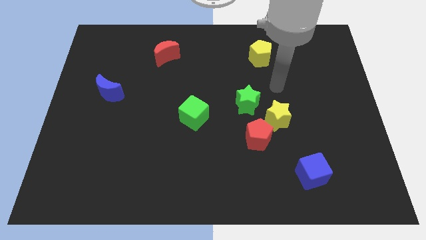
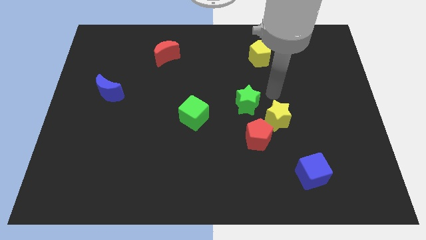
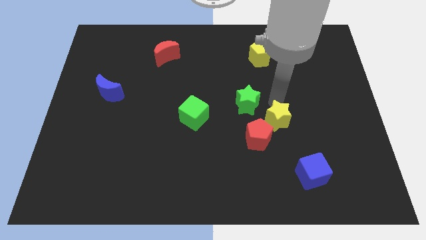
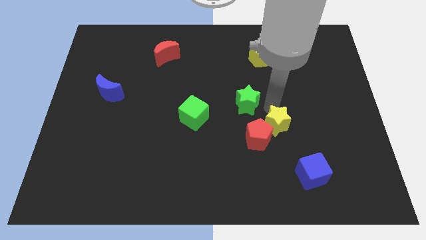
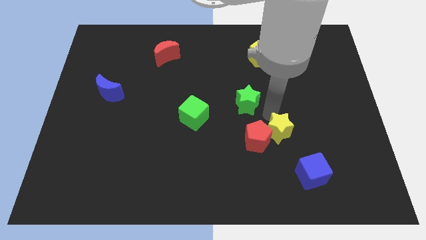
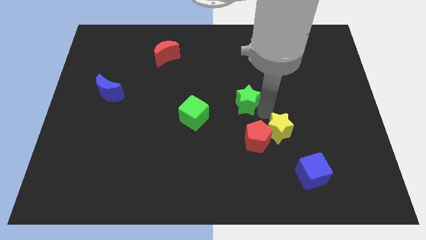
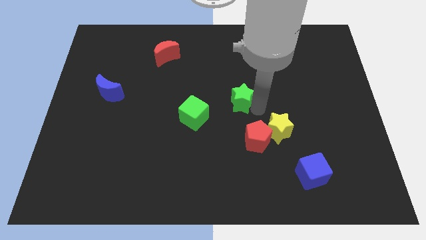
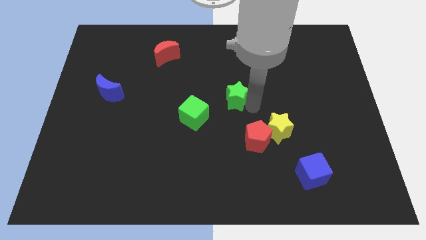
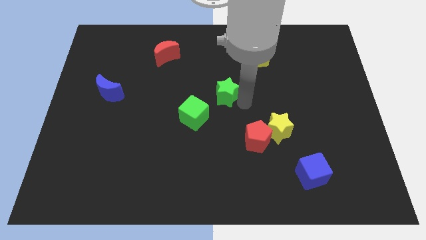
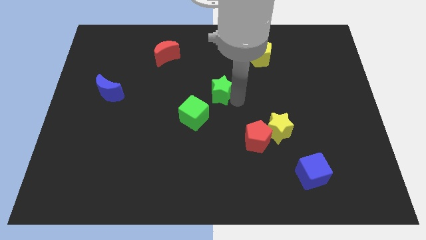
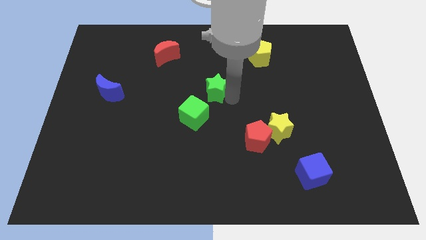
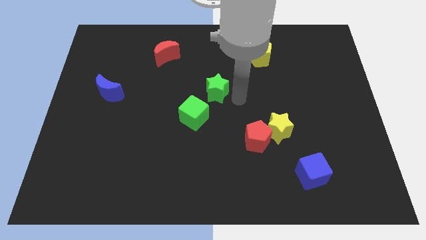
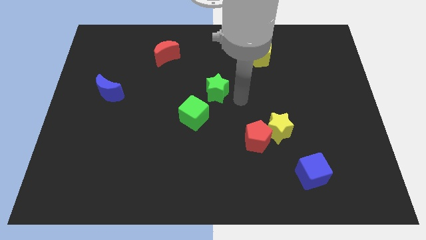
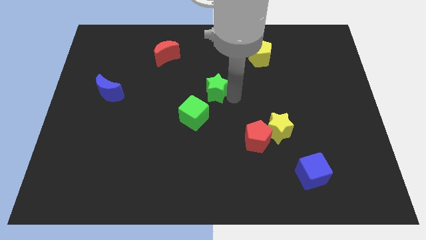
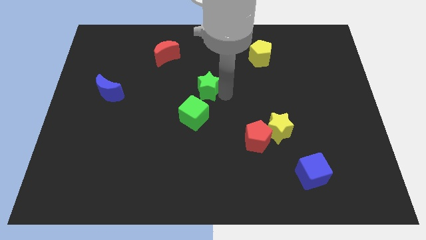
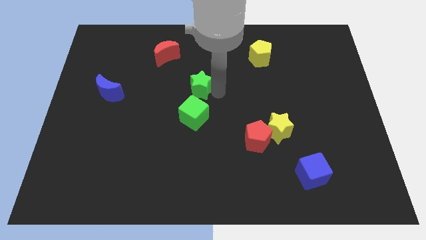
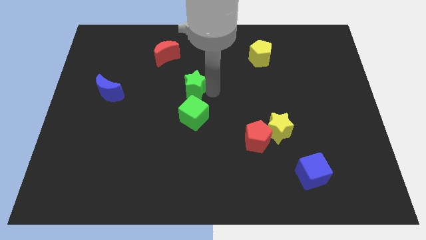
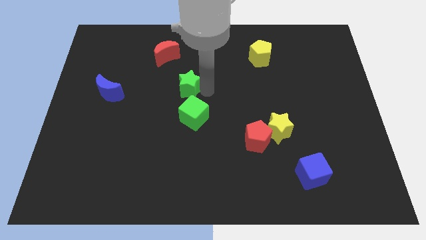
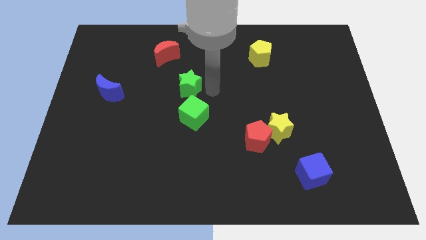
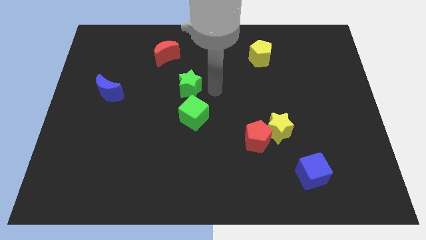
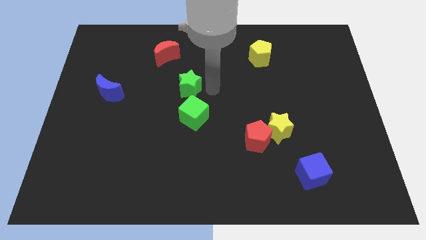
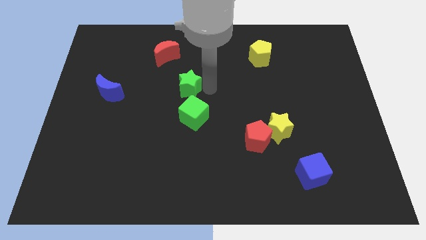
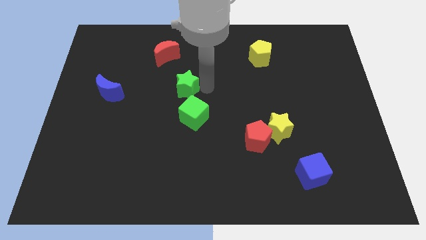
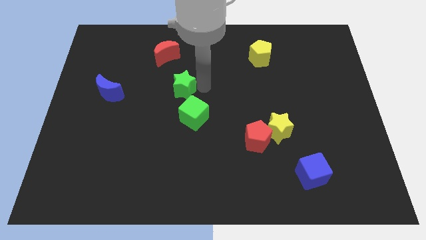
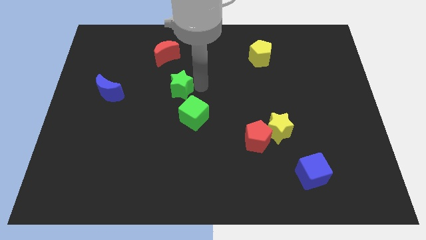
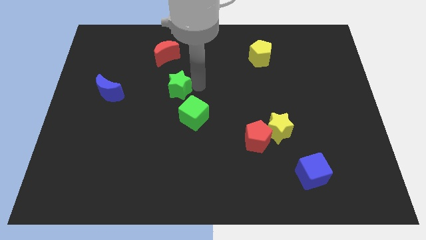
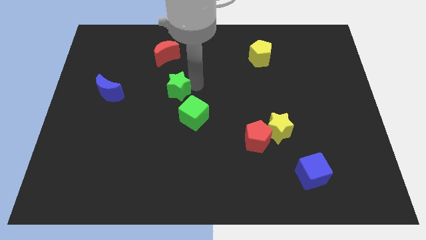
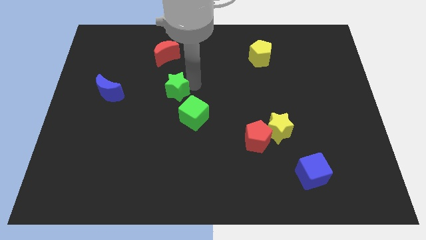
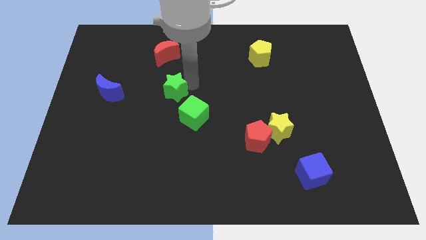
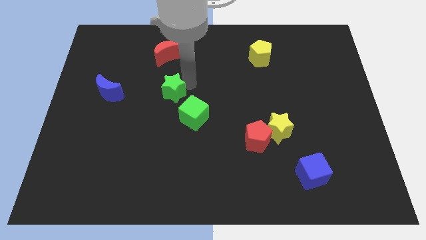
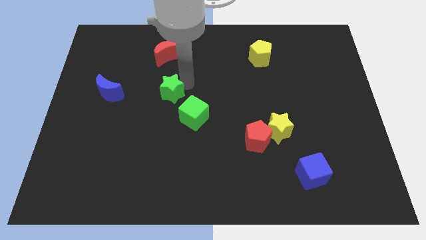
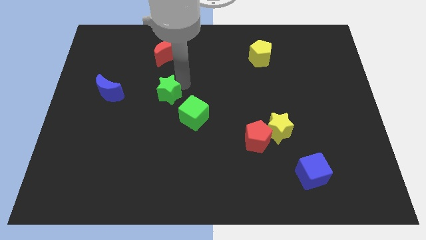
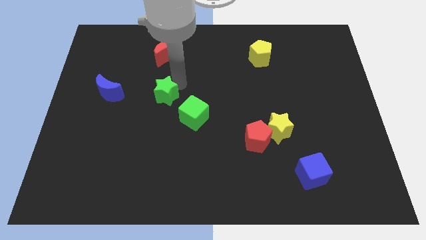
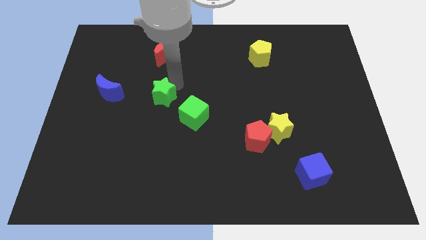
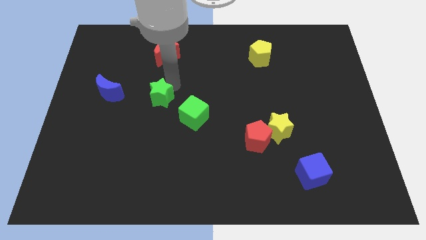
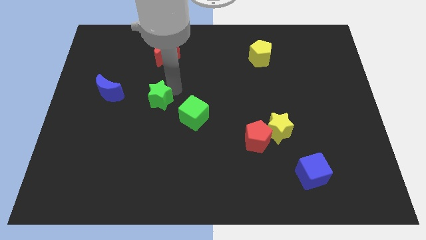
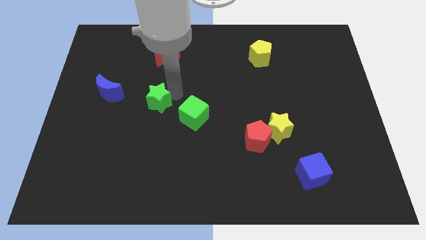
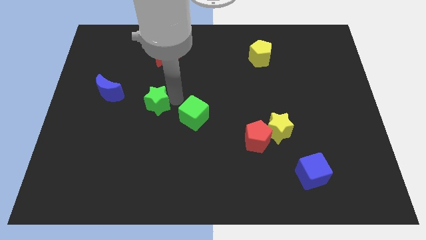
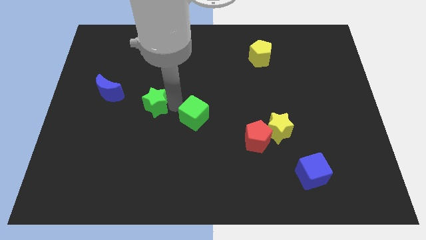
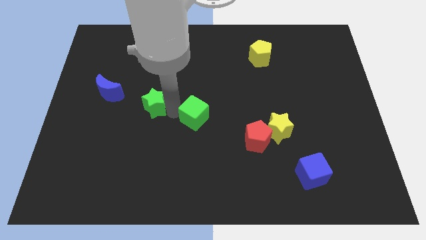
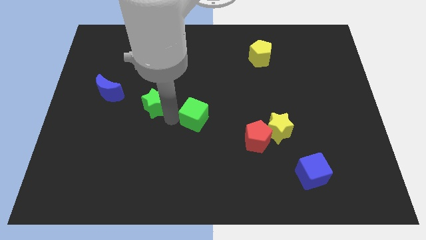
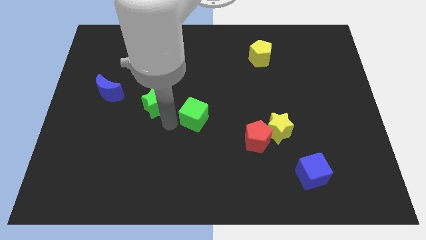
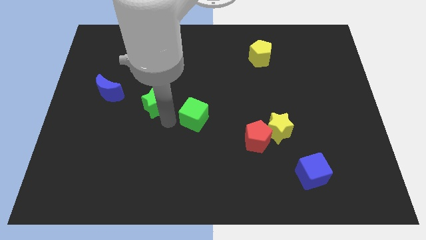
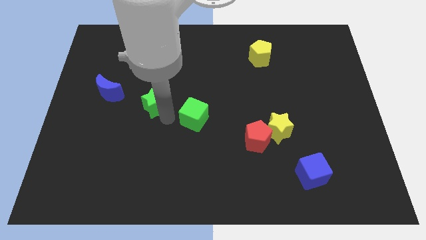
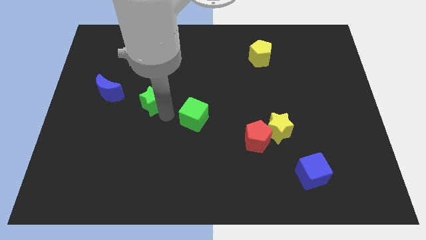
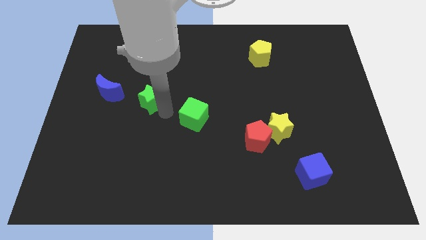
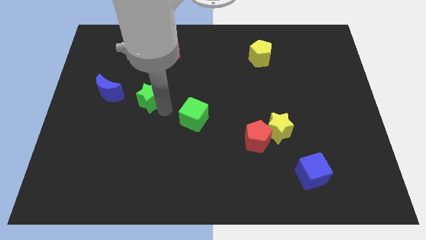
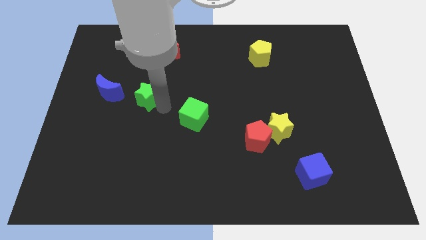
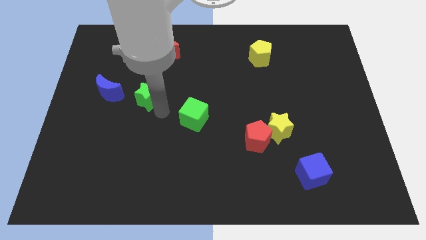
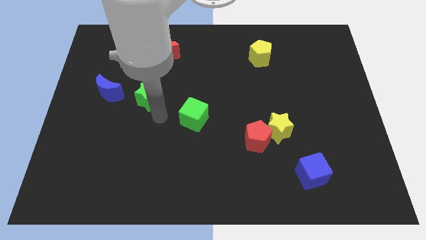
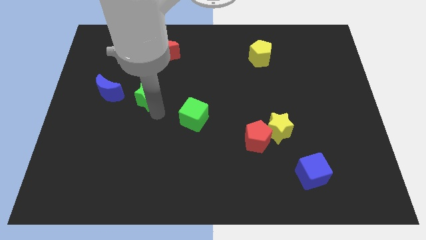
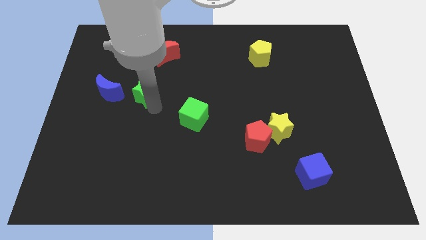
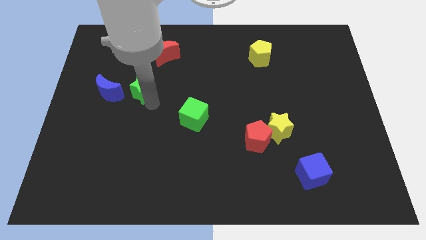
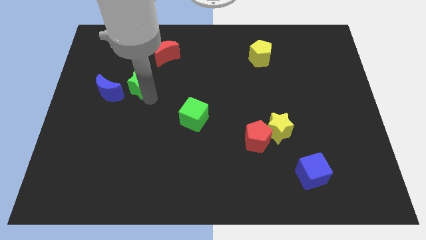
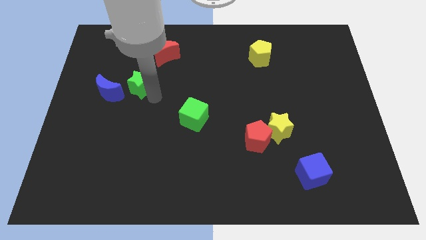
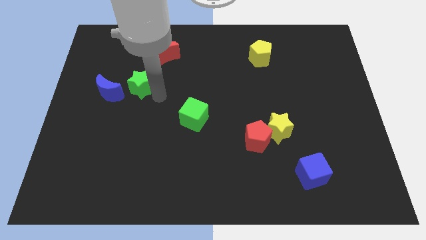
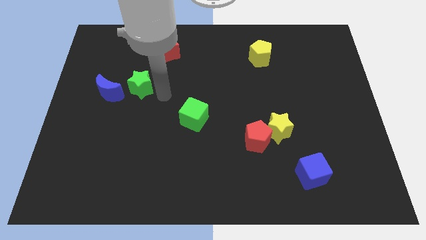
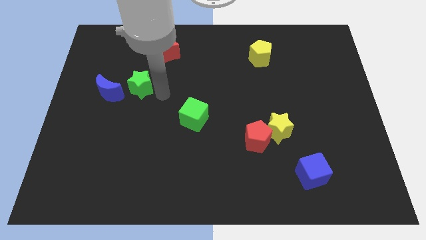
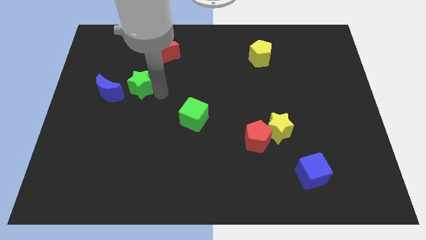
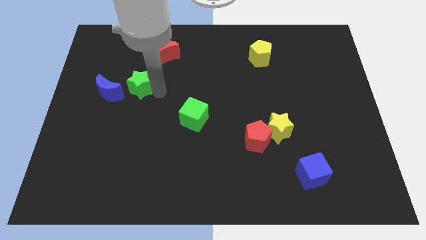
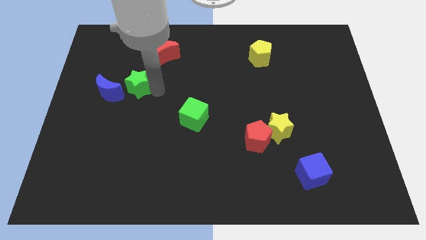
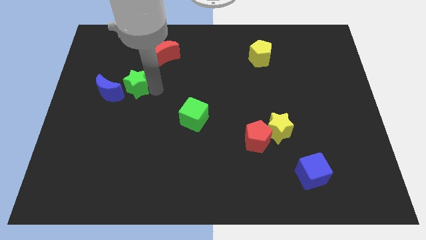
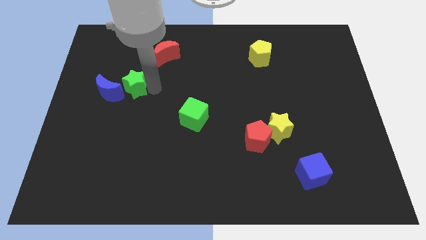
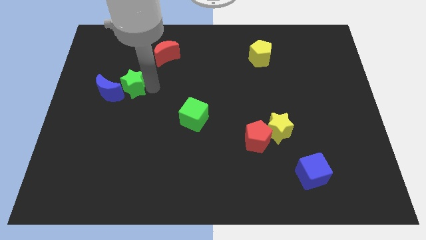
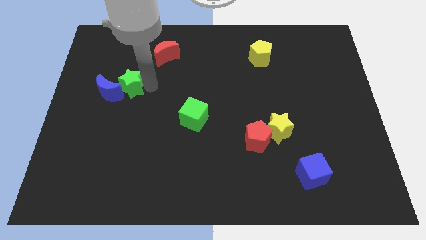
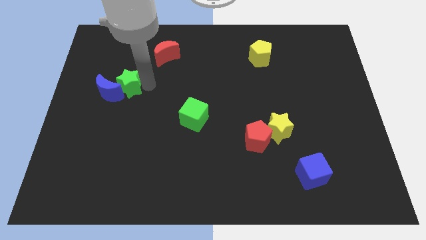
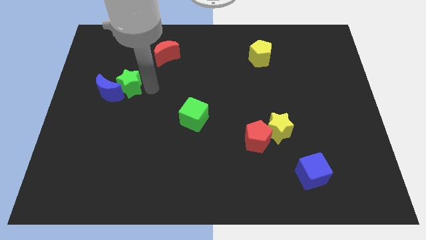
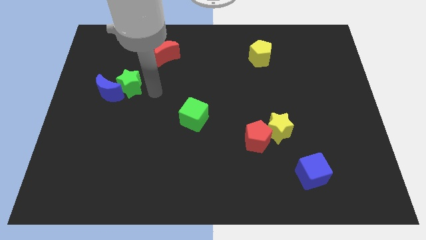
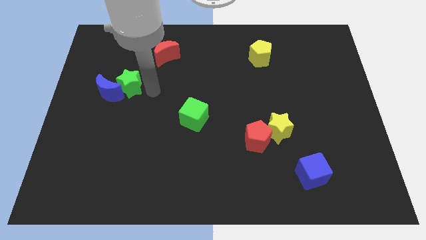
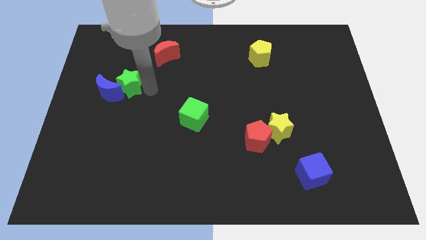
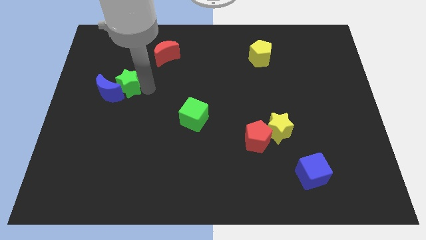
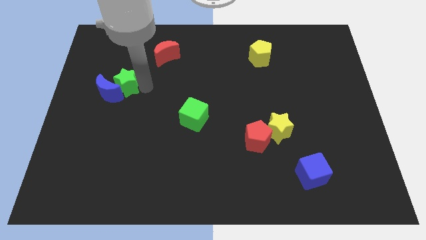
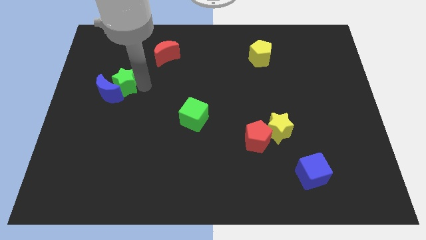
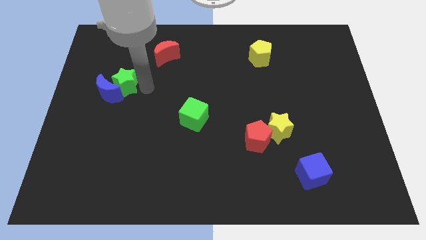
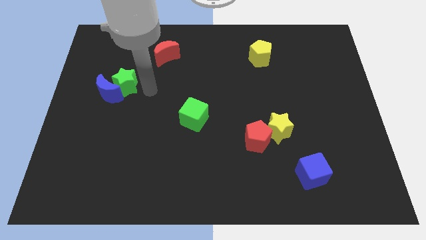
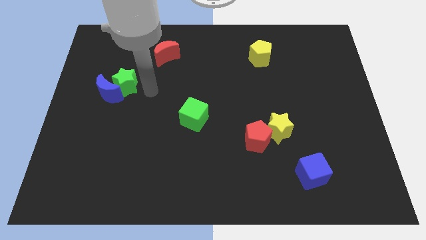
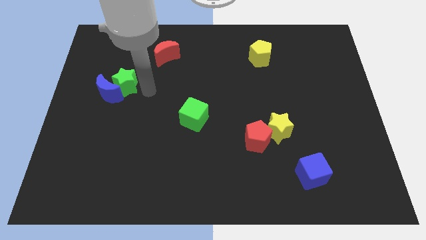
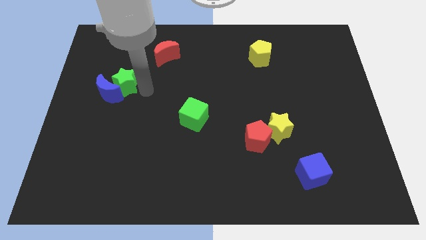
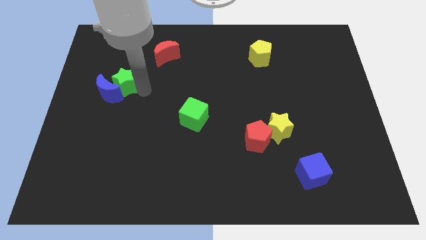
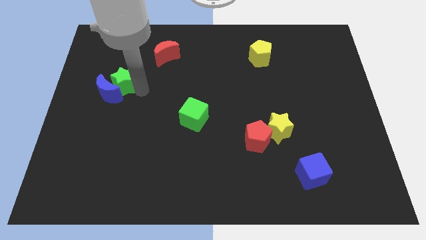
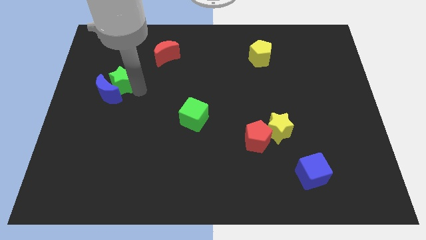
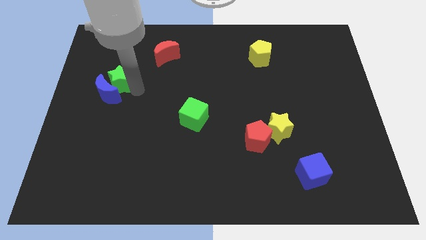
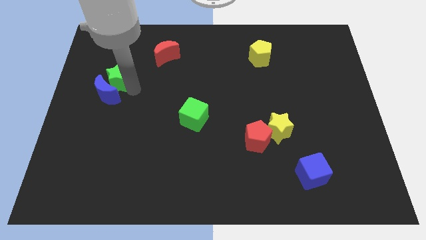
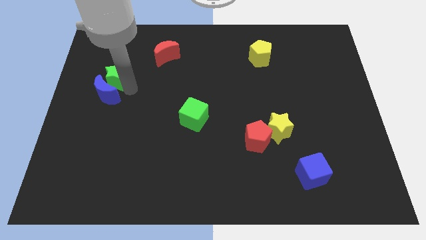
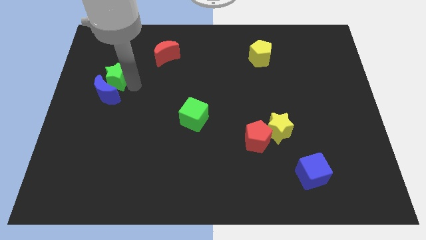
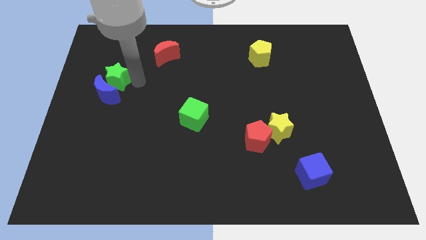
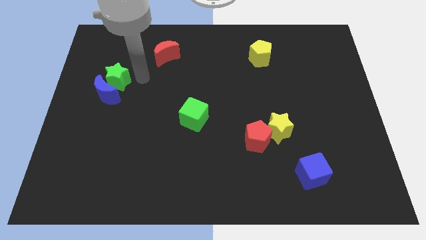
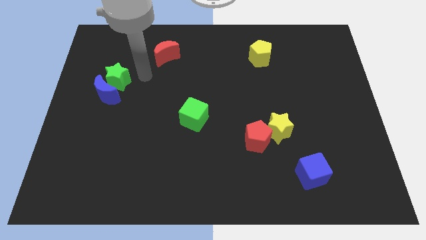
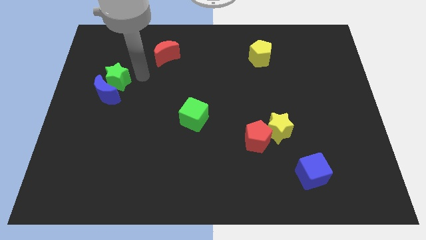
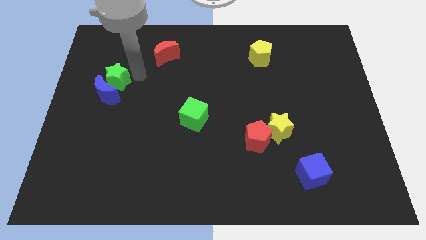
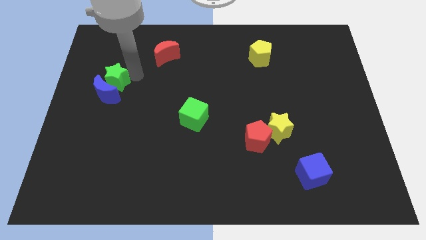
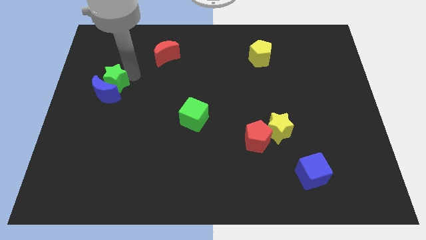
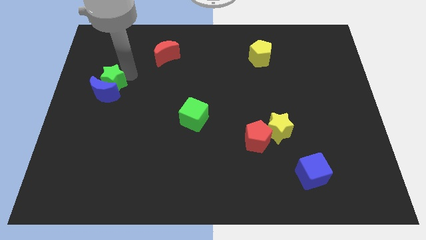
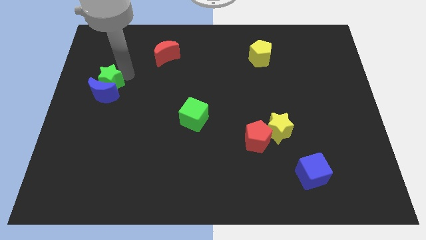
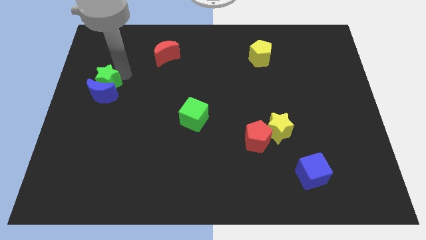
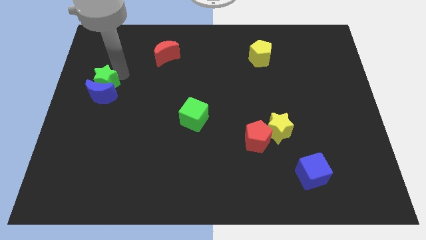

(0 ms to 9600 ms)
slide the green star to the center left
